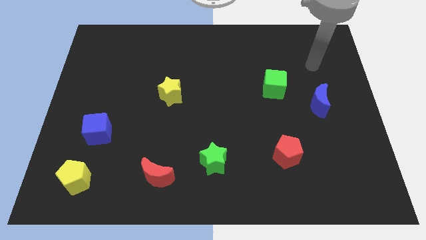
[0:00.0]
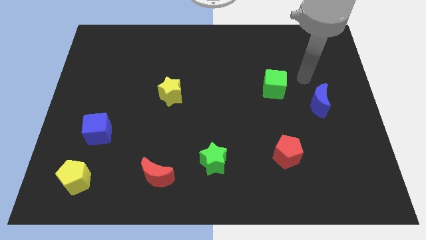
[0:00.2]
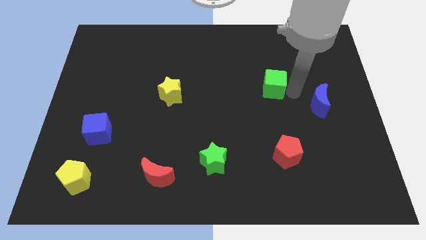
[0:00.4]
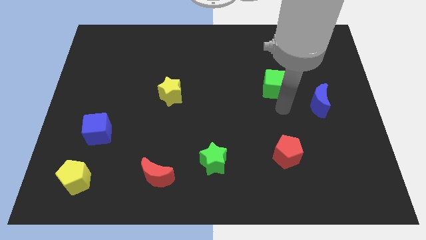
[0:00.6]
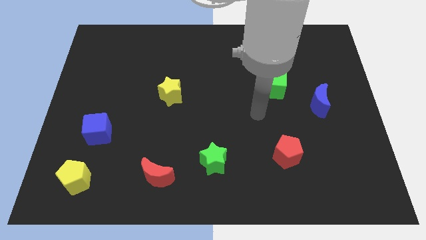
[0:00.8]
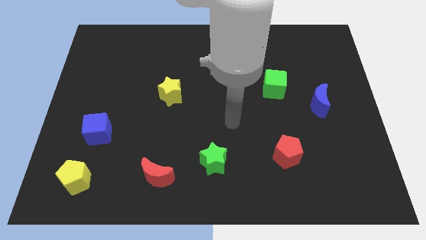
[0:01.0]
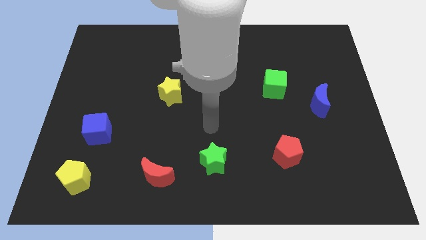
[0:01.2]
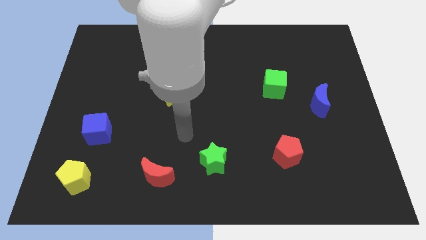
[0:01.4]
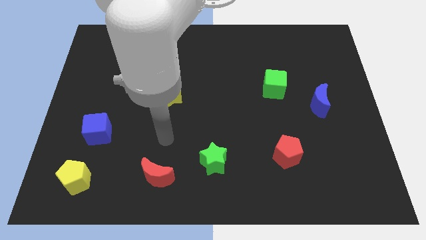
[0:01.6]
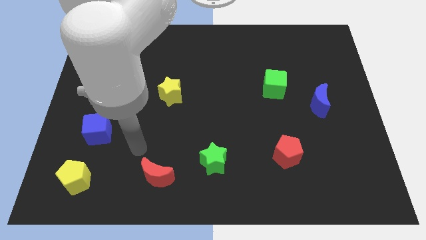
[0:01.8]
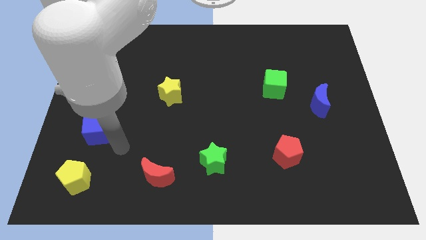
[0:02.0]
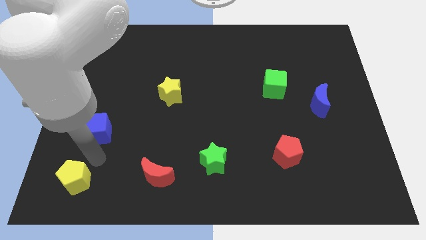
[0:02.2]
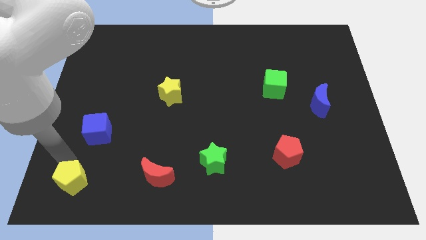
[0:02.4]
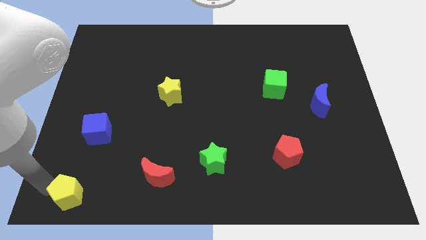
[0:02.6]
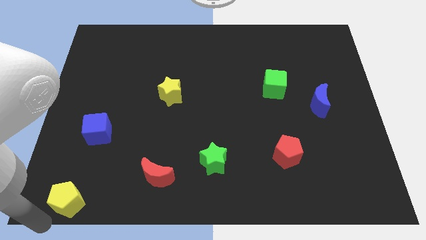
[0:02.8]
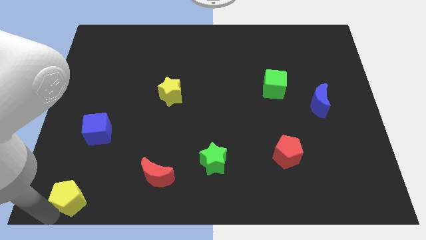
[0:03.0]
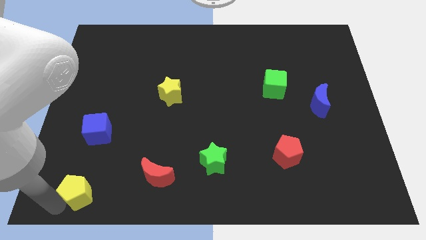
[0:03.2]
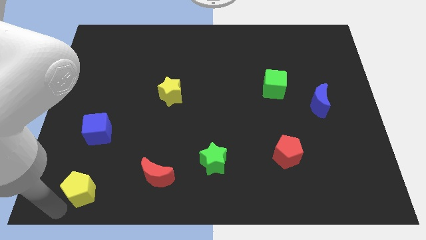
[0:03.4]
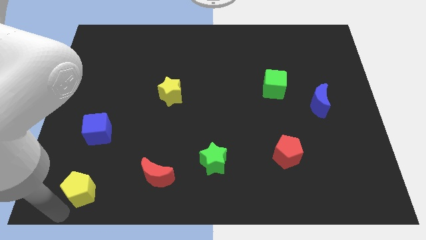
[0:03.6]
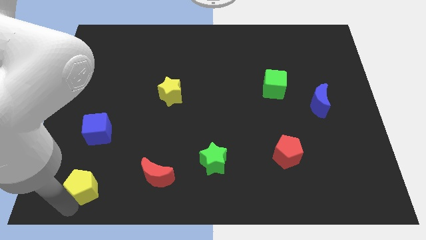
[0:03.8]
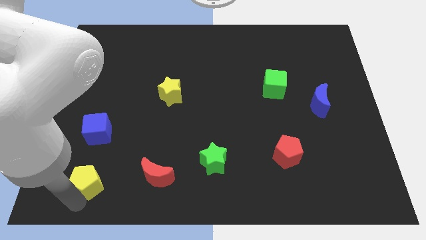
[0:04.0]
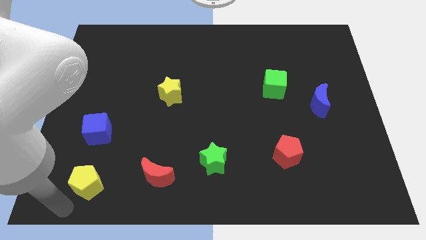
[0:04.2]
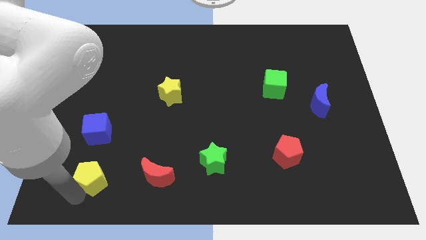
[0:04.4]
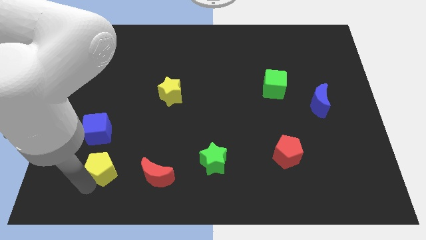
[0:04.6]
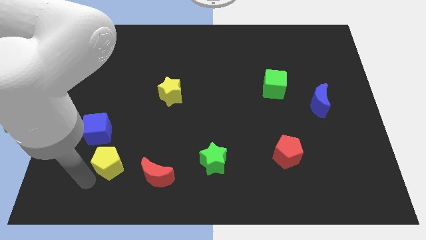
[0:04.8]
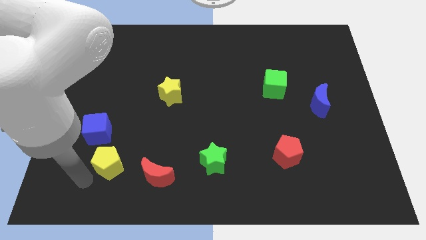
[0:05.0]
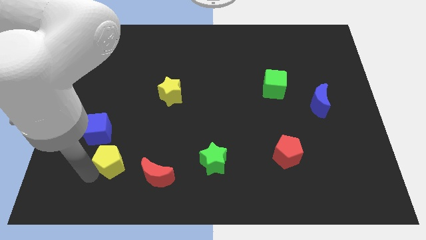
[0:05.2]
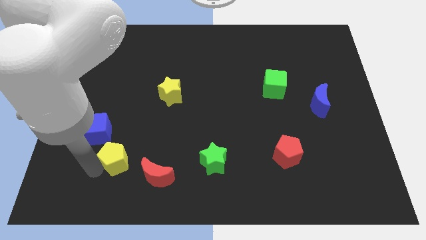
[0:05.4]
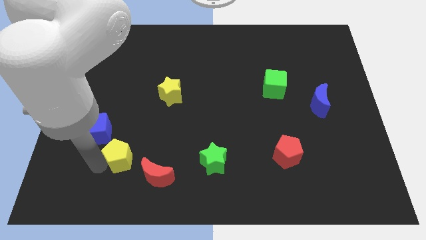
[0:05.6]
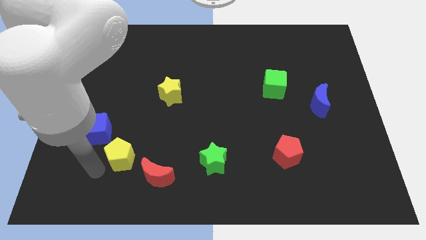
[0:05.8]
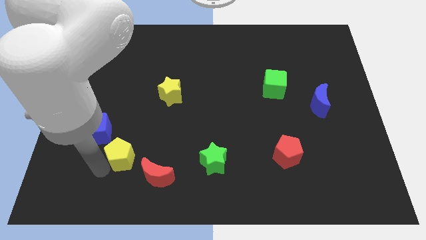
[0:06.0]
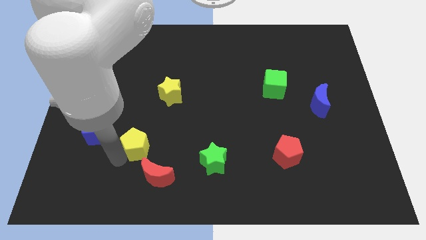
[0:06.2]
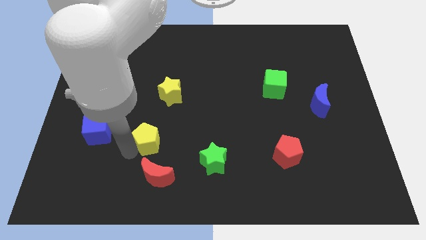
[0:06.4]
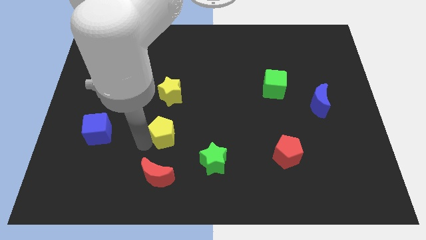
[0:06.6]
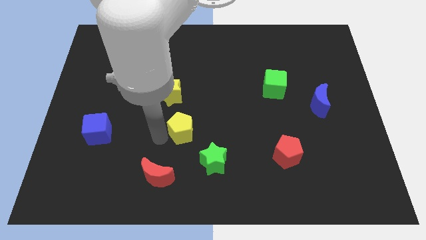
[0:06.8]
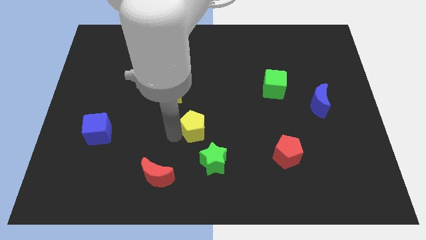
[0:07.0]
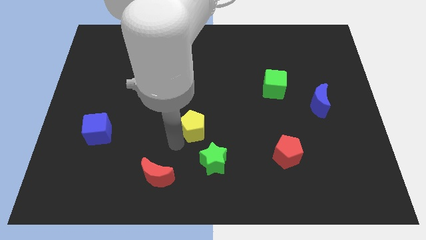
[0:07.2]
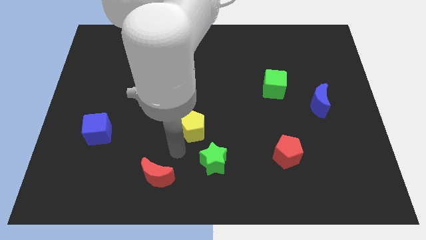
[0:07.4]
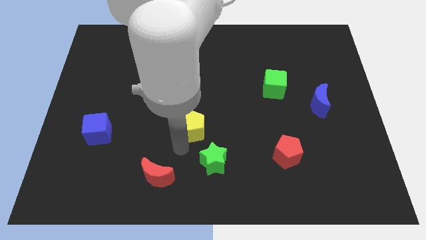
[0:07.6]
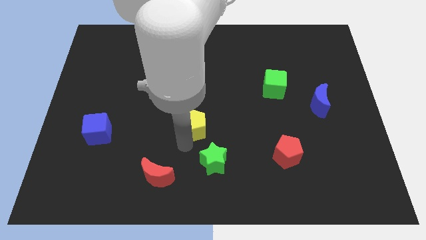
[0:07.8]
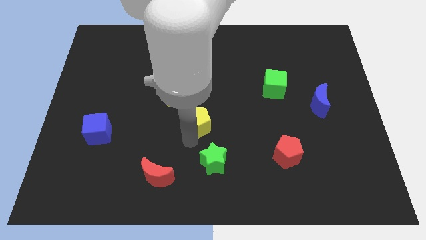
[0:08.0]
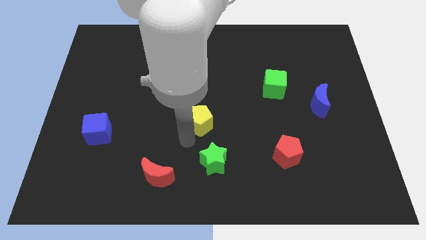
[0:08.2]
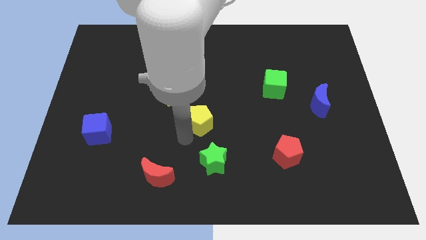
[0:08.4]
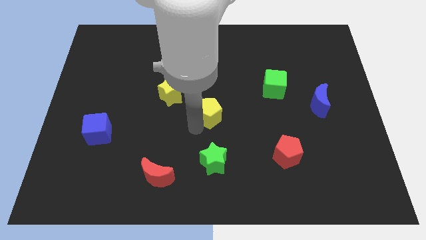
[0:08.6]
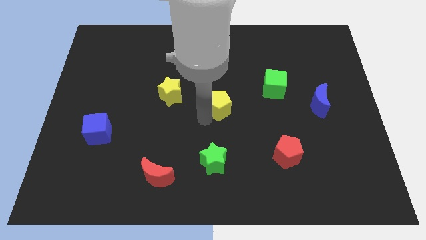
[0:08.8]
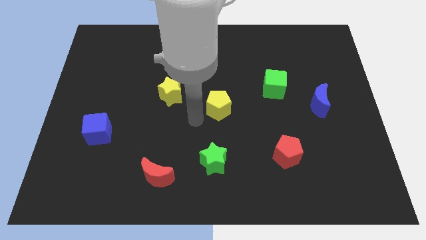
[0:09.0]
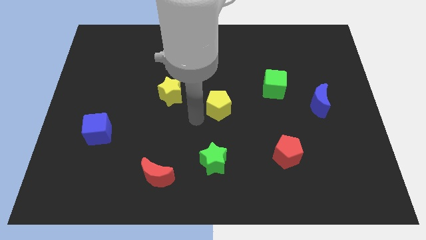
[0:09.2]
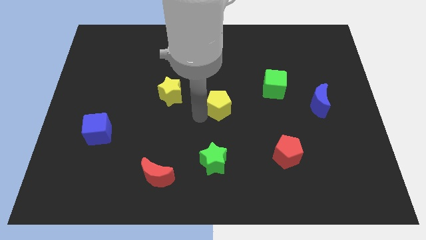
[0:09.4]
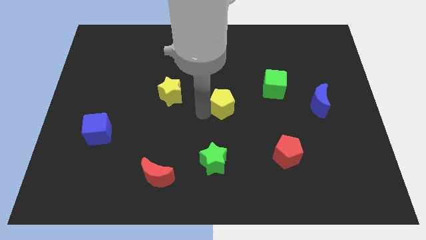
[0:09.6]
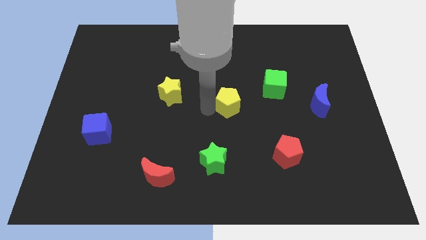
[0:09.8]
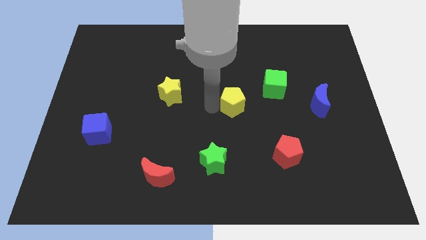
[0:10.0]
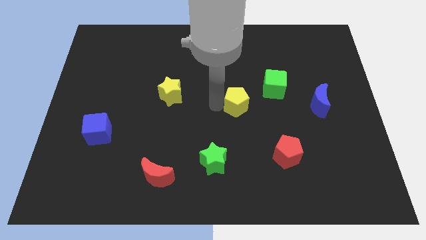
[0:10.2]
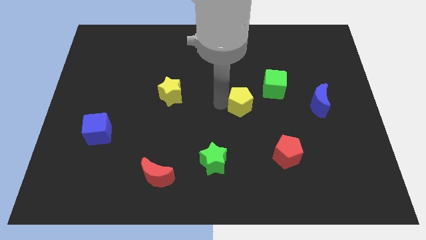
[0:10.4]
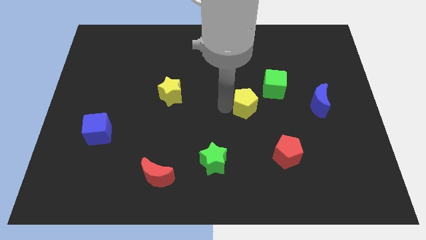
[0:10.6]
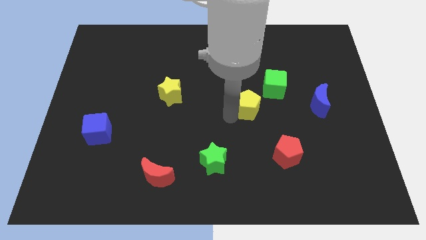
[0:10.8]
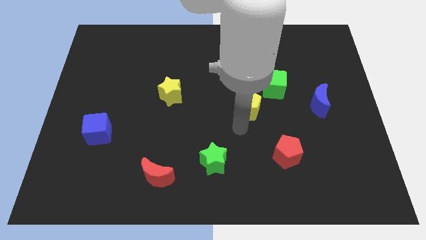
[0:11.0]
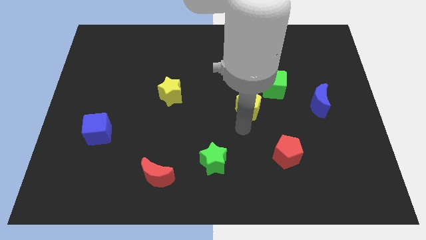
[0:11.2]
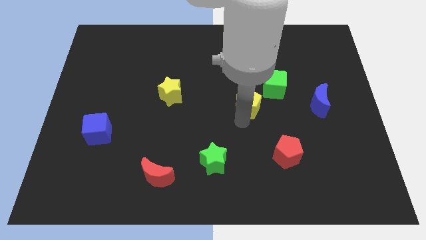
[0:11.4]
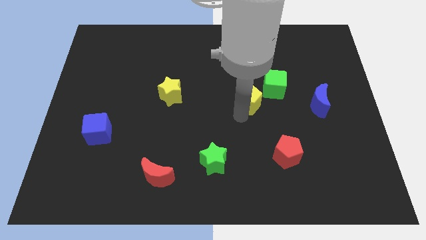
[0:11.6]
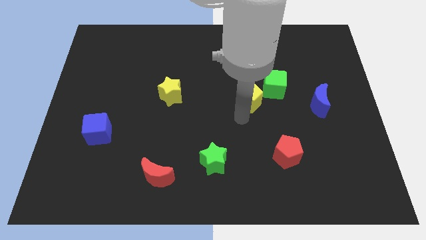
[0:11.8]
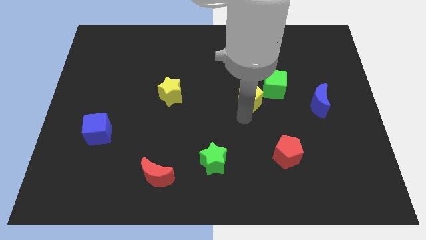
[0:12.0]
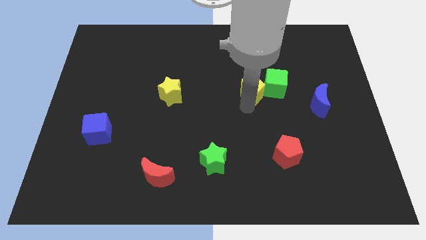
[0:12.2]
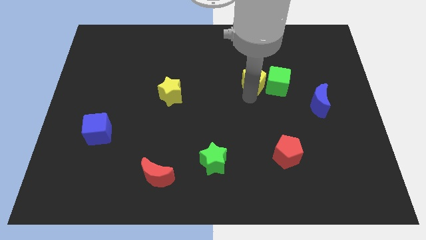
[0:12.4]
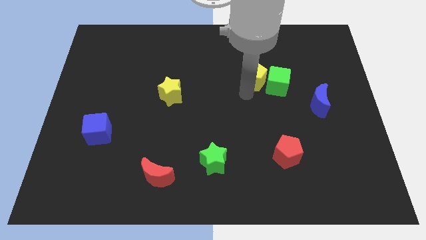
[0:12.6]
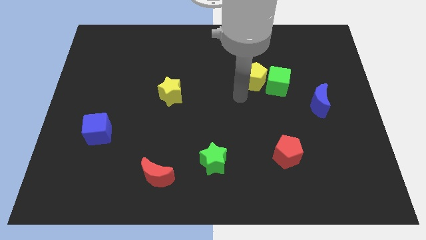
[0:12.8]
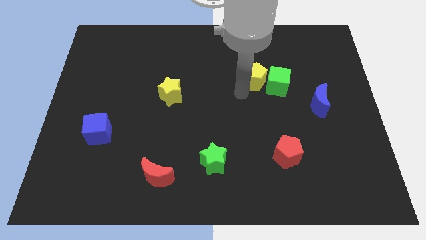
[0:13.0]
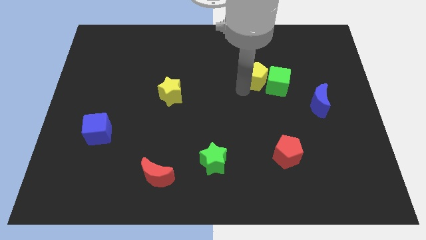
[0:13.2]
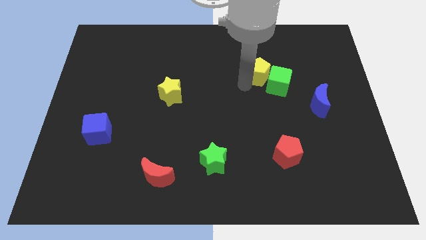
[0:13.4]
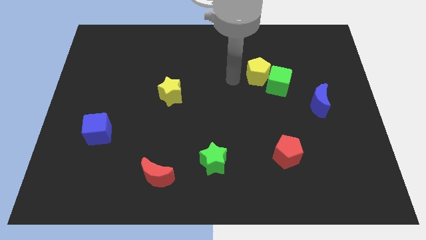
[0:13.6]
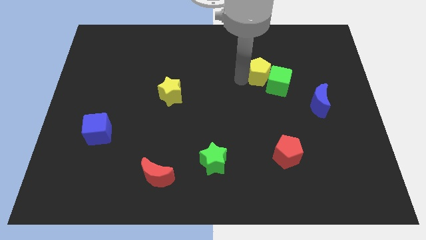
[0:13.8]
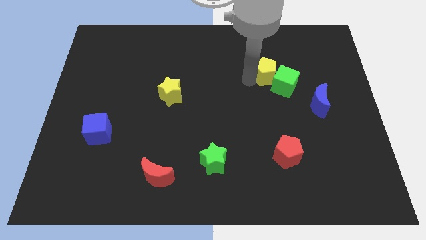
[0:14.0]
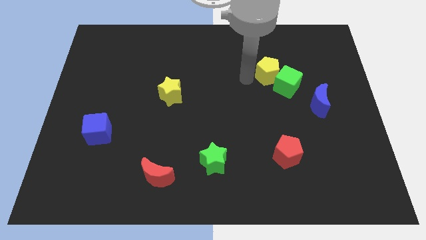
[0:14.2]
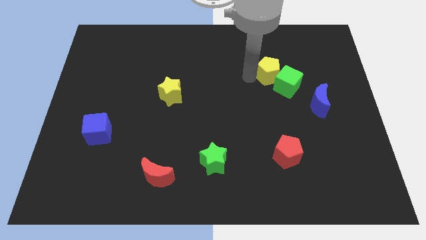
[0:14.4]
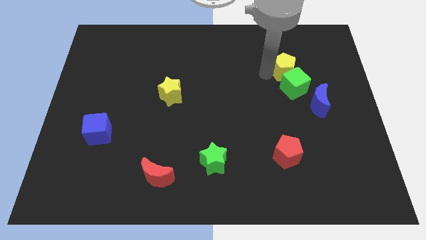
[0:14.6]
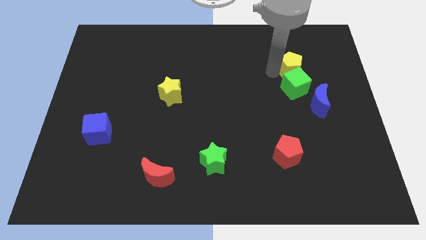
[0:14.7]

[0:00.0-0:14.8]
slide the yellow pentagon to the top right side of the green cube
